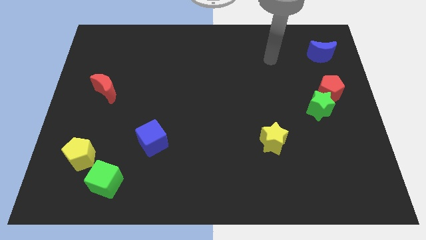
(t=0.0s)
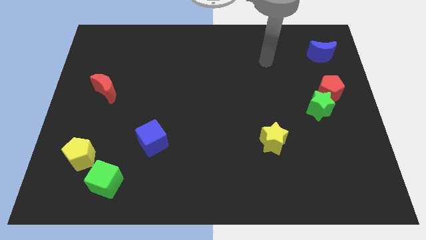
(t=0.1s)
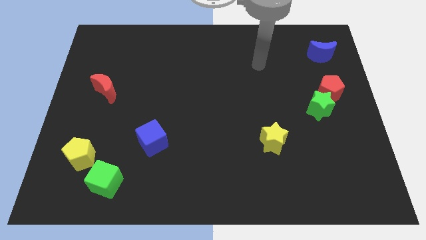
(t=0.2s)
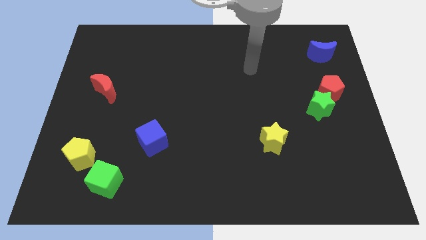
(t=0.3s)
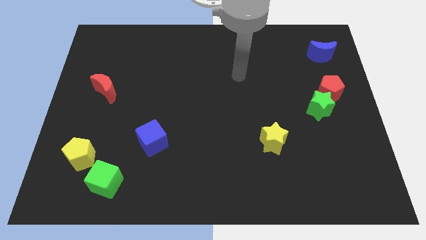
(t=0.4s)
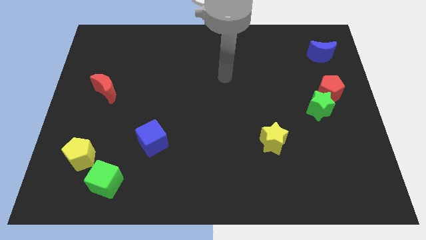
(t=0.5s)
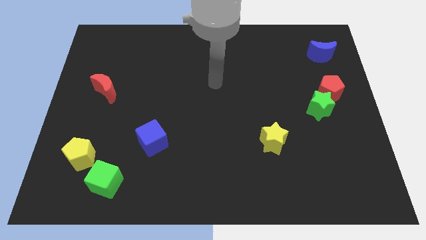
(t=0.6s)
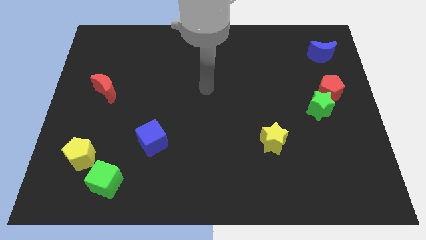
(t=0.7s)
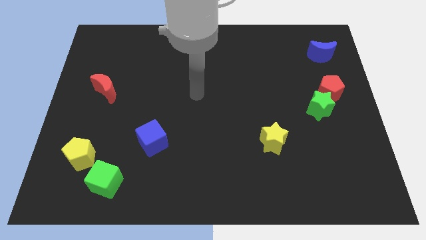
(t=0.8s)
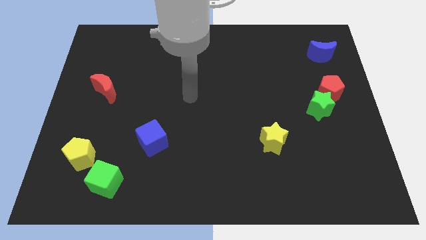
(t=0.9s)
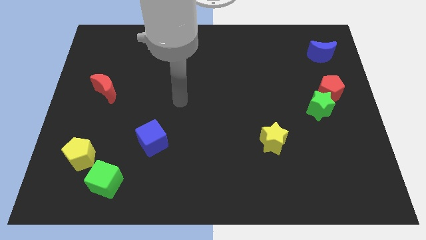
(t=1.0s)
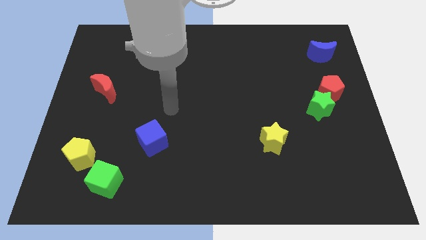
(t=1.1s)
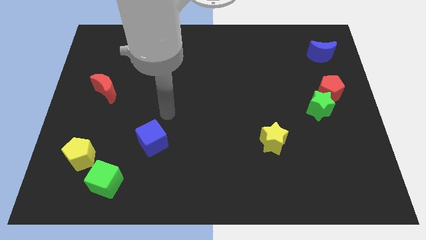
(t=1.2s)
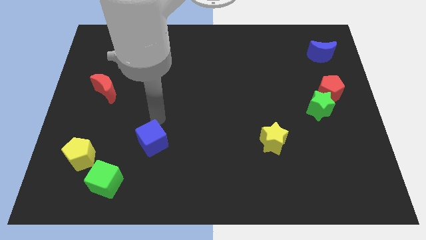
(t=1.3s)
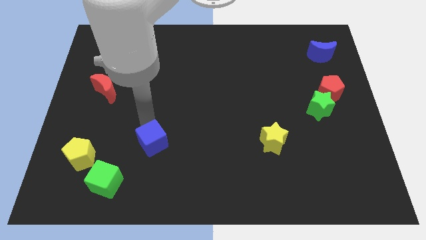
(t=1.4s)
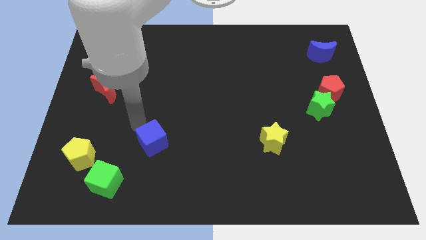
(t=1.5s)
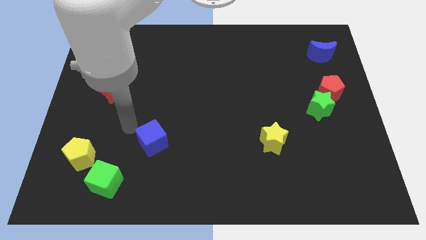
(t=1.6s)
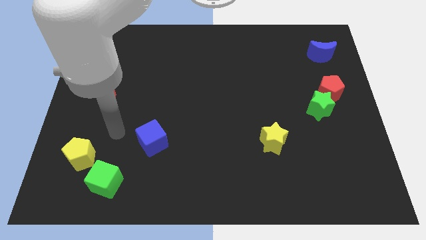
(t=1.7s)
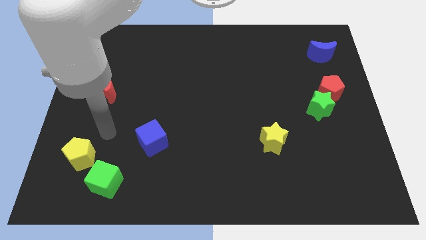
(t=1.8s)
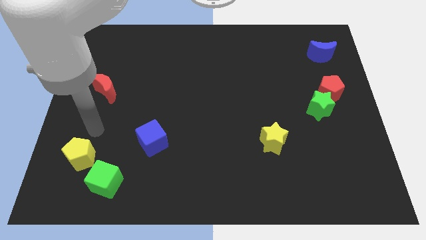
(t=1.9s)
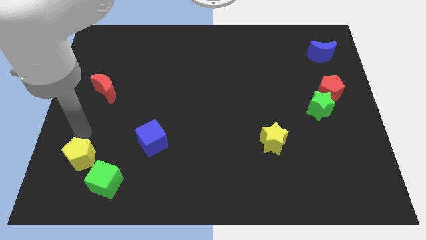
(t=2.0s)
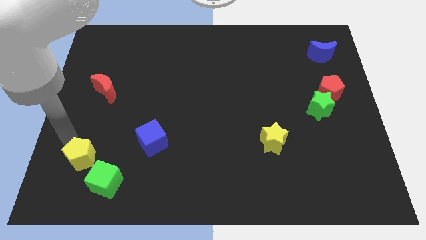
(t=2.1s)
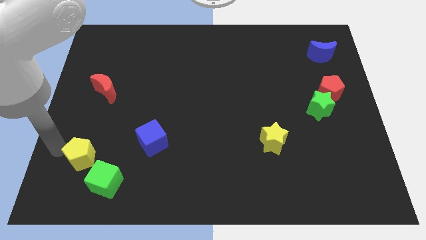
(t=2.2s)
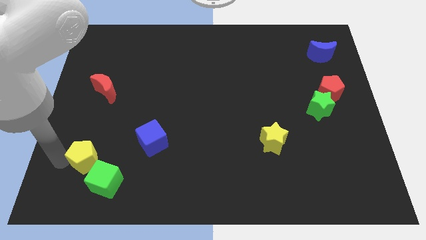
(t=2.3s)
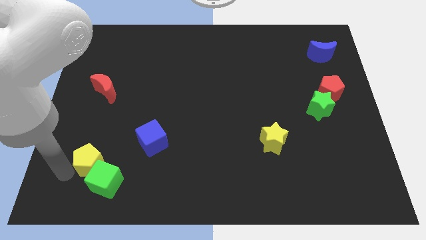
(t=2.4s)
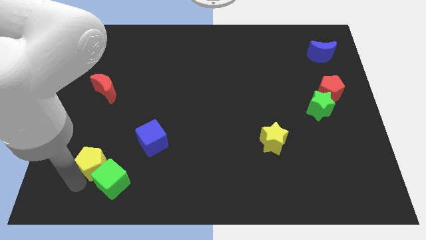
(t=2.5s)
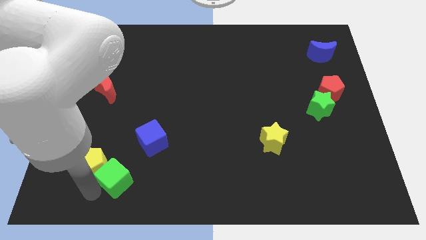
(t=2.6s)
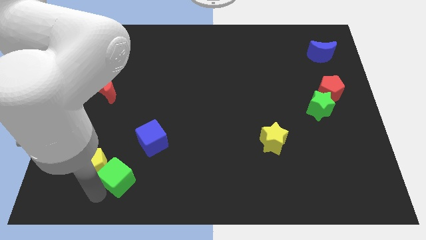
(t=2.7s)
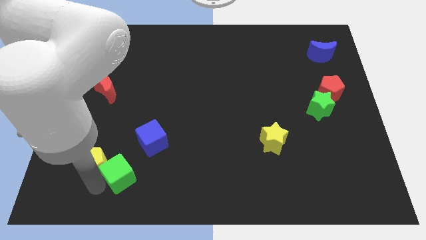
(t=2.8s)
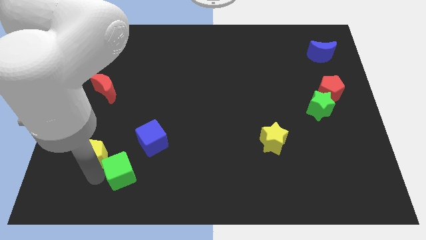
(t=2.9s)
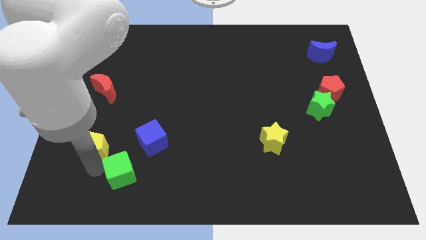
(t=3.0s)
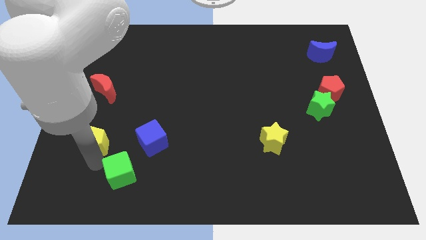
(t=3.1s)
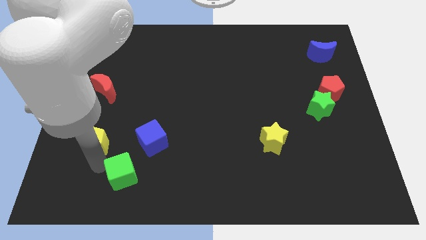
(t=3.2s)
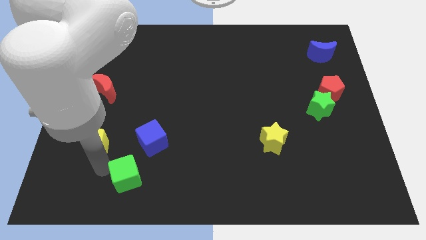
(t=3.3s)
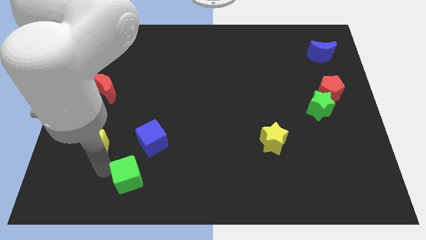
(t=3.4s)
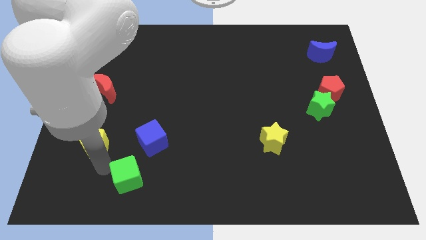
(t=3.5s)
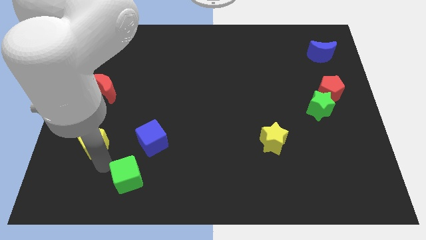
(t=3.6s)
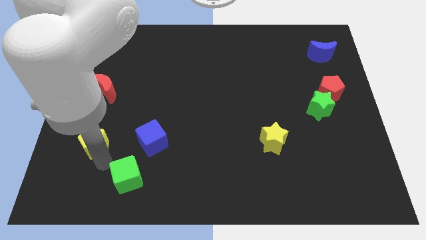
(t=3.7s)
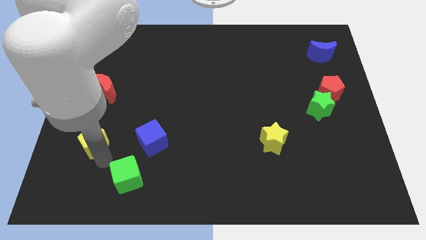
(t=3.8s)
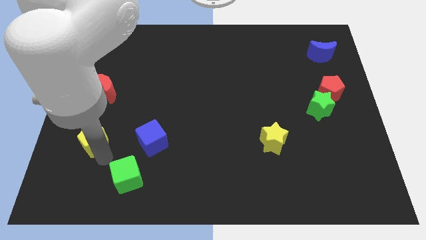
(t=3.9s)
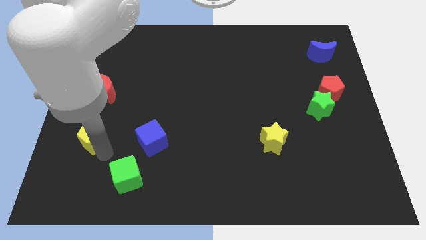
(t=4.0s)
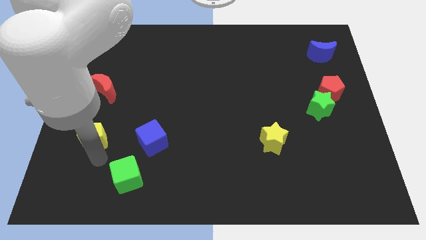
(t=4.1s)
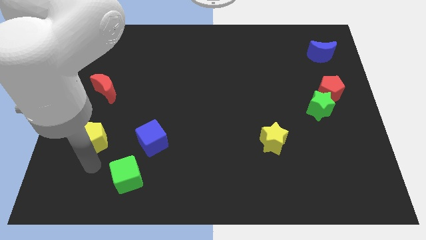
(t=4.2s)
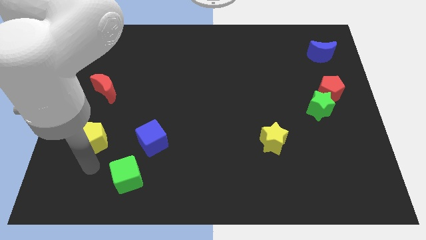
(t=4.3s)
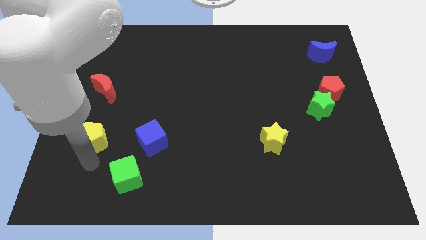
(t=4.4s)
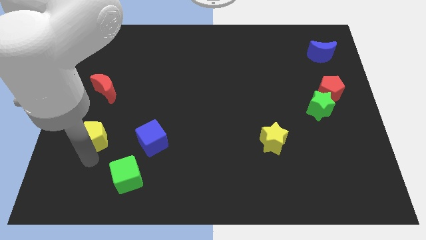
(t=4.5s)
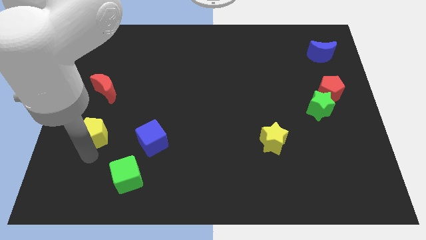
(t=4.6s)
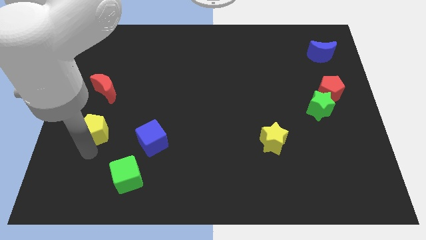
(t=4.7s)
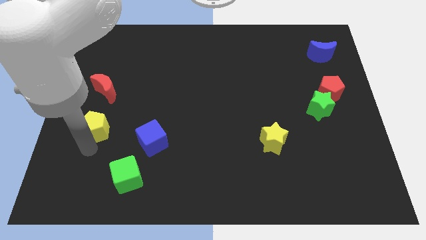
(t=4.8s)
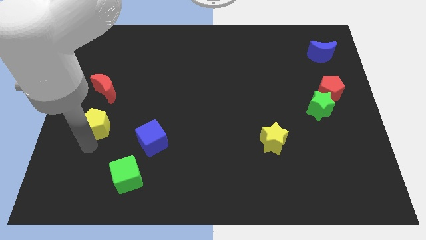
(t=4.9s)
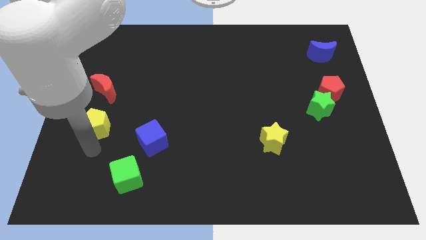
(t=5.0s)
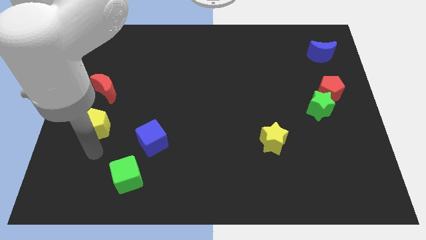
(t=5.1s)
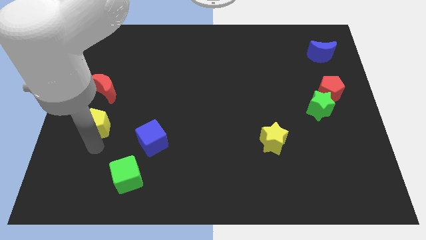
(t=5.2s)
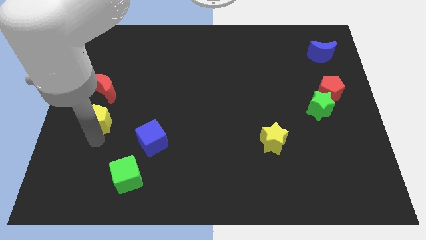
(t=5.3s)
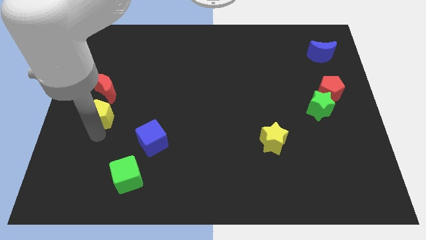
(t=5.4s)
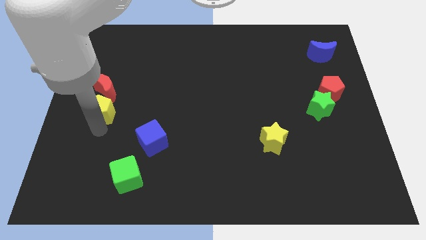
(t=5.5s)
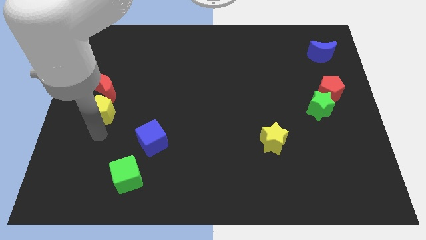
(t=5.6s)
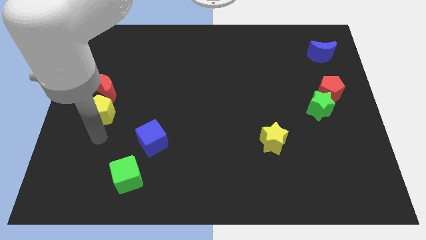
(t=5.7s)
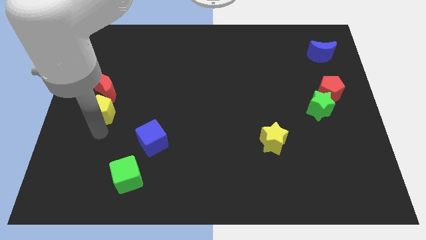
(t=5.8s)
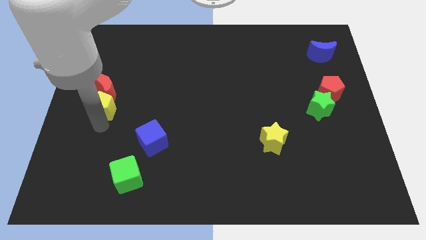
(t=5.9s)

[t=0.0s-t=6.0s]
slide the yellow pentagon to the red moon

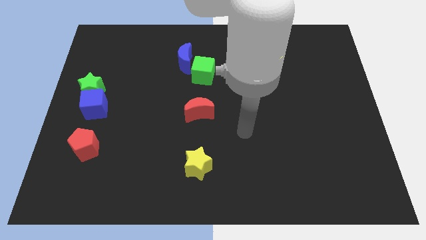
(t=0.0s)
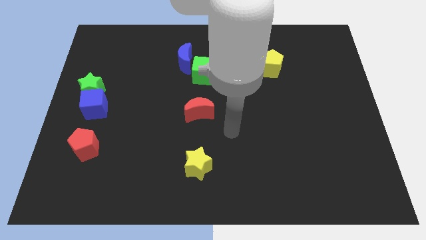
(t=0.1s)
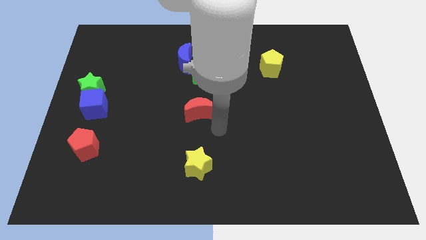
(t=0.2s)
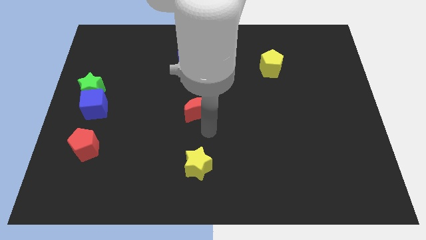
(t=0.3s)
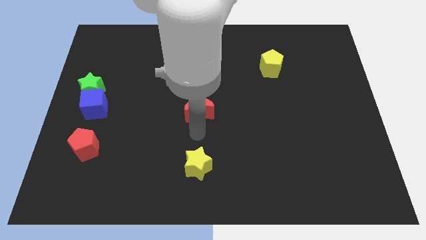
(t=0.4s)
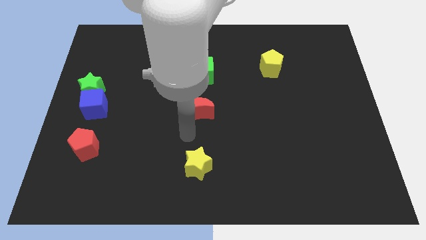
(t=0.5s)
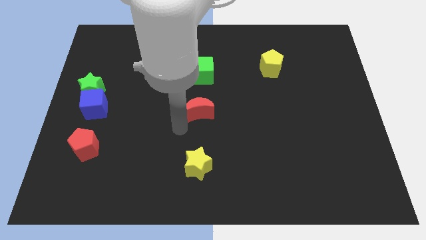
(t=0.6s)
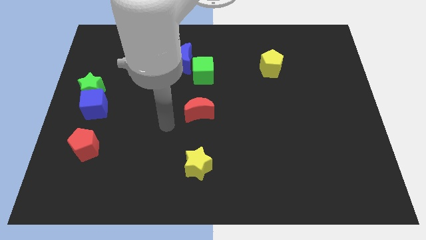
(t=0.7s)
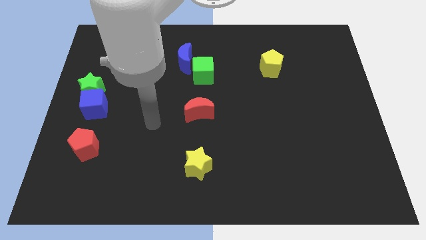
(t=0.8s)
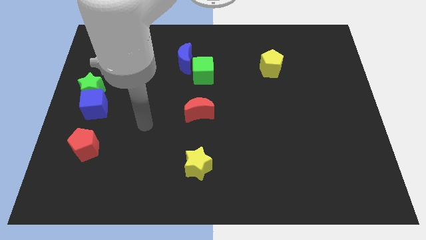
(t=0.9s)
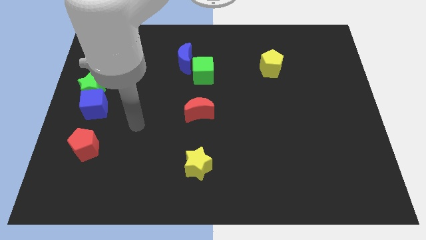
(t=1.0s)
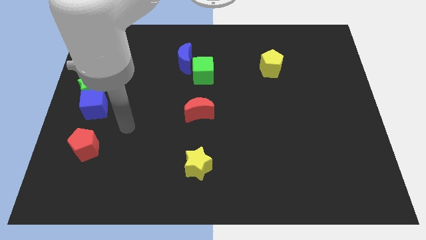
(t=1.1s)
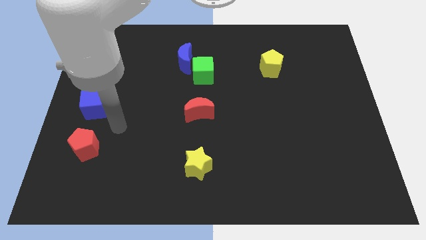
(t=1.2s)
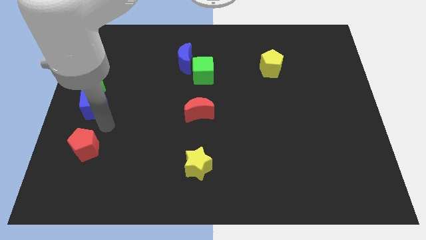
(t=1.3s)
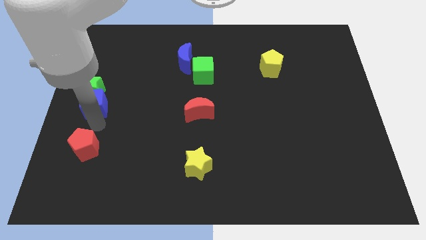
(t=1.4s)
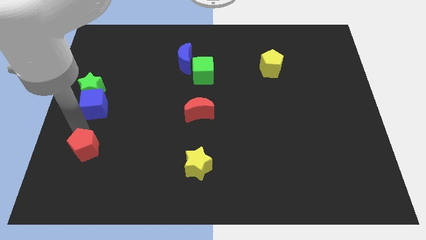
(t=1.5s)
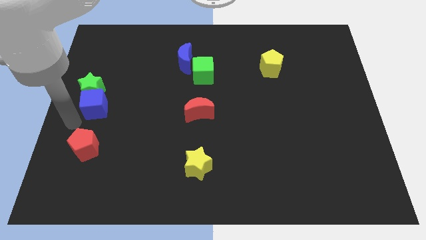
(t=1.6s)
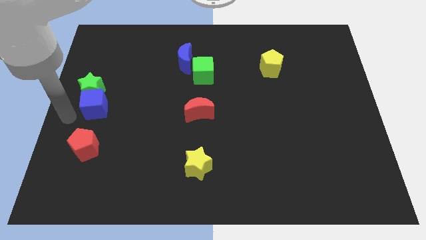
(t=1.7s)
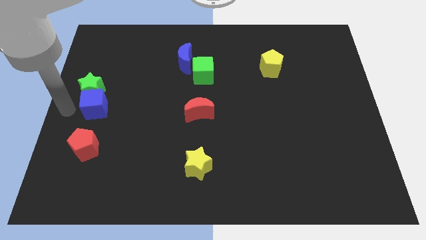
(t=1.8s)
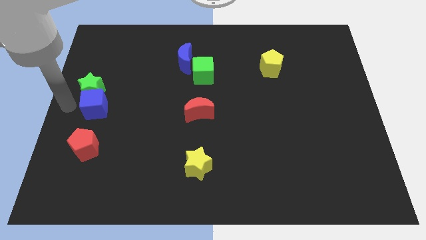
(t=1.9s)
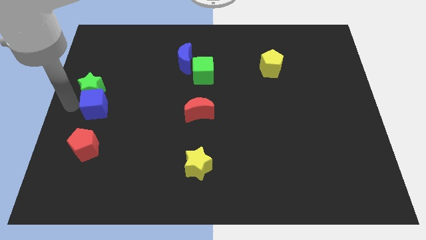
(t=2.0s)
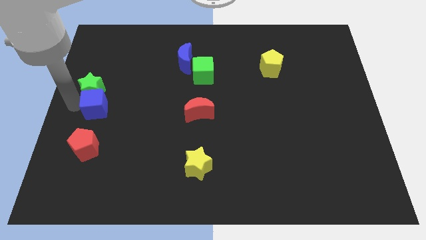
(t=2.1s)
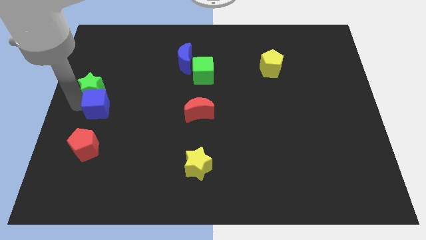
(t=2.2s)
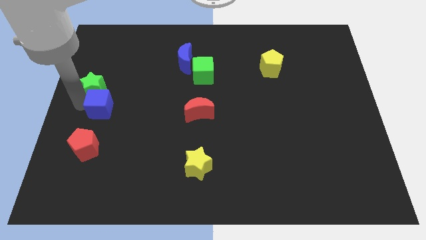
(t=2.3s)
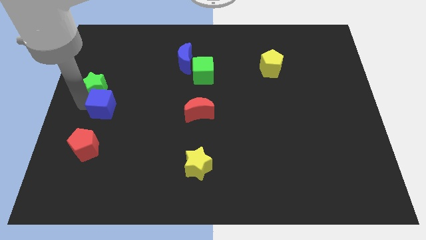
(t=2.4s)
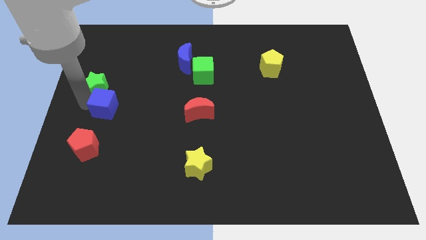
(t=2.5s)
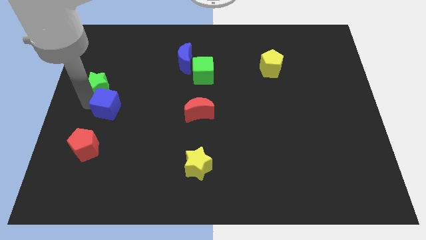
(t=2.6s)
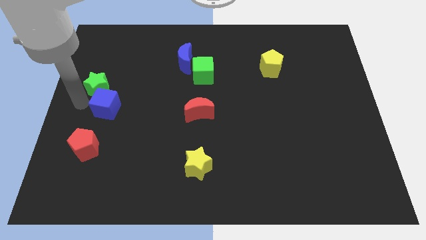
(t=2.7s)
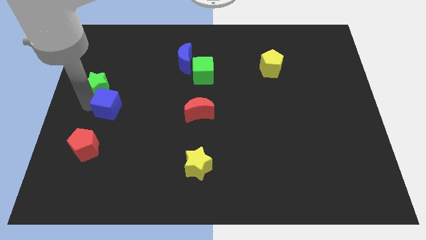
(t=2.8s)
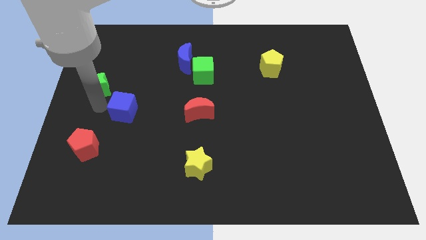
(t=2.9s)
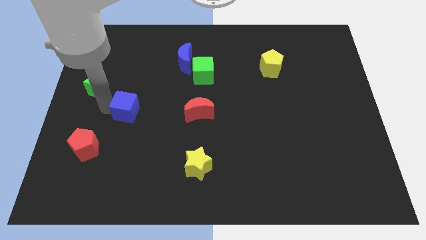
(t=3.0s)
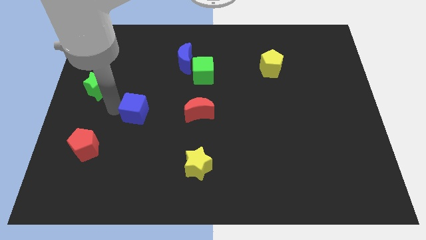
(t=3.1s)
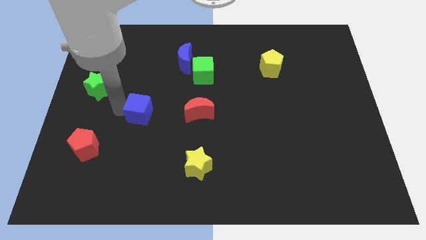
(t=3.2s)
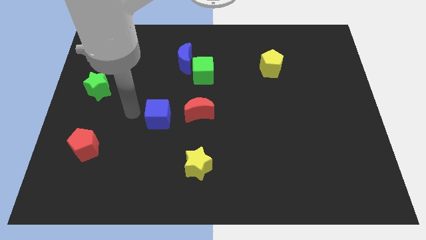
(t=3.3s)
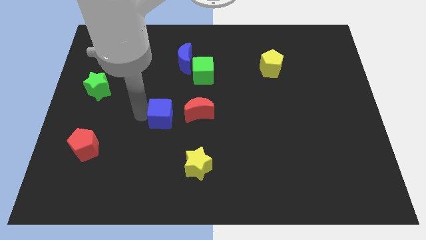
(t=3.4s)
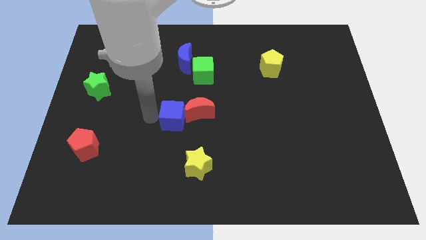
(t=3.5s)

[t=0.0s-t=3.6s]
slide the blue cube towards the red moon
